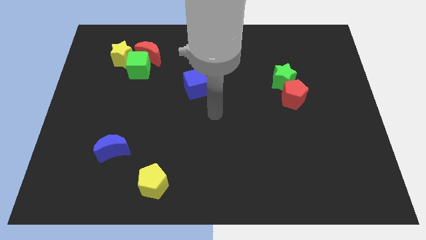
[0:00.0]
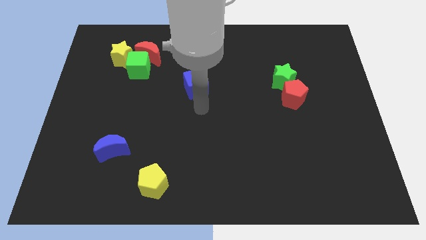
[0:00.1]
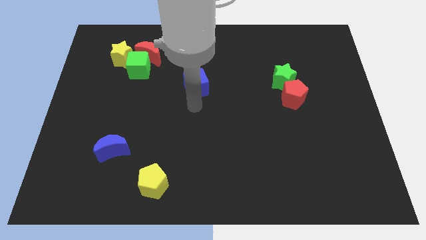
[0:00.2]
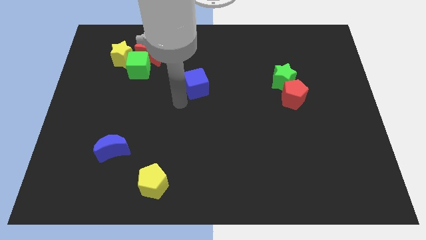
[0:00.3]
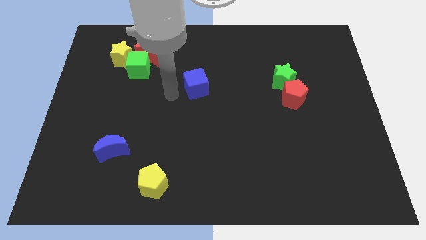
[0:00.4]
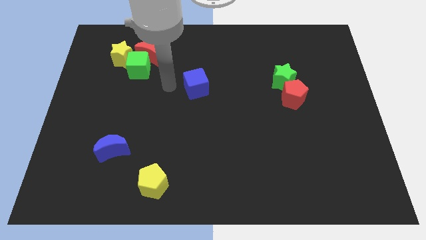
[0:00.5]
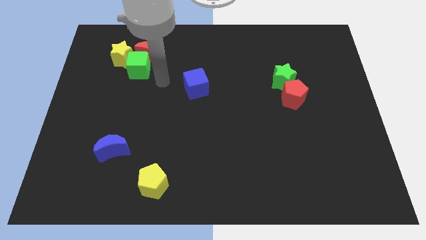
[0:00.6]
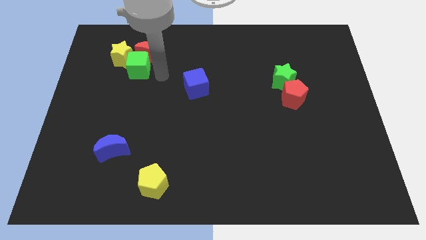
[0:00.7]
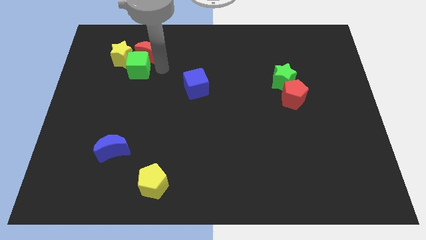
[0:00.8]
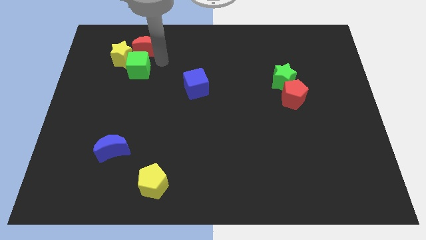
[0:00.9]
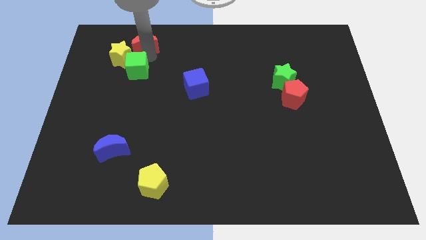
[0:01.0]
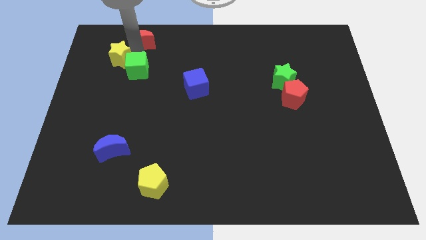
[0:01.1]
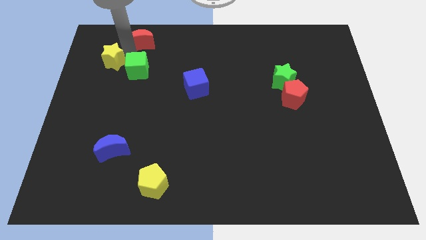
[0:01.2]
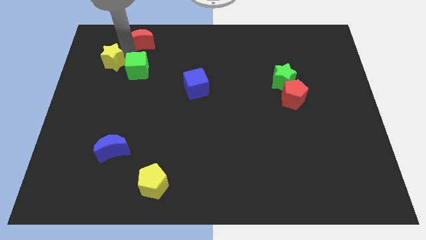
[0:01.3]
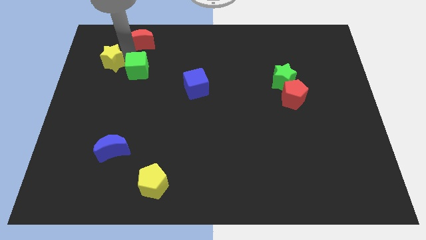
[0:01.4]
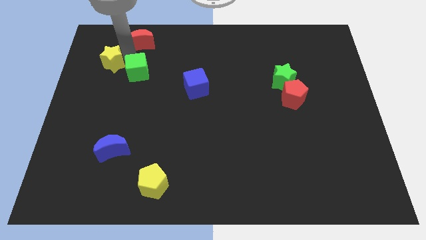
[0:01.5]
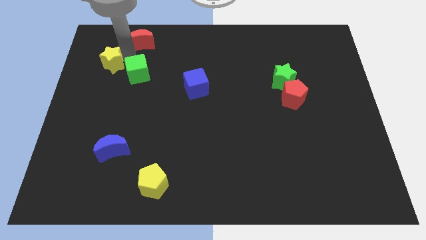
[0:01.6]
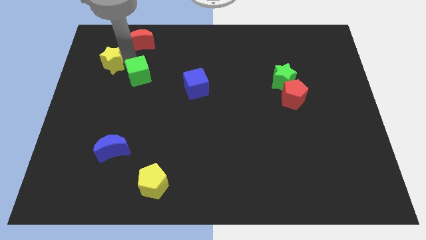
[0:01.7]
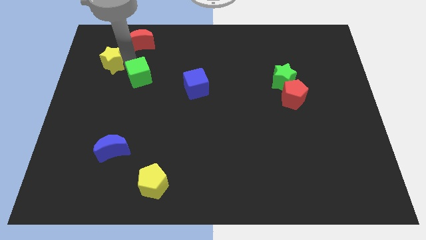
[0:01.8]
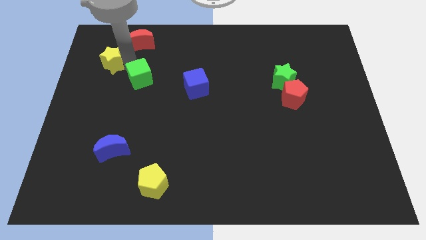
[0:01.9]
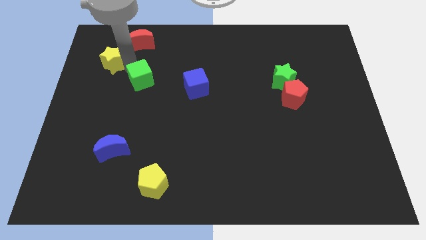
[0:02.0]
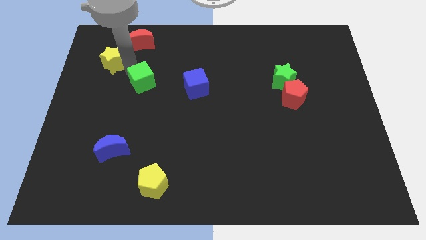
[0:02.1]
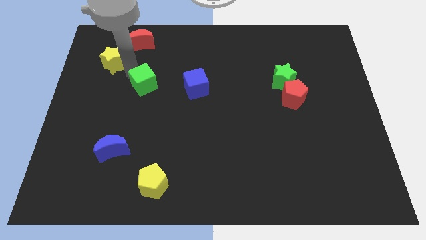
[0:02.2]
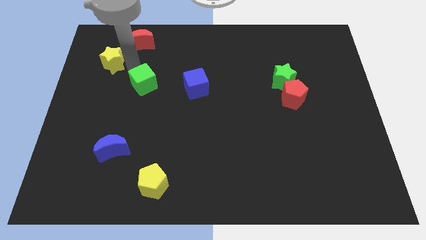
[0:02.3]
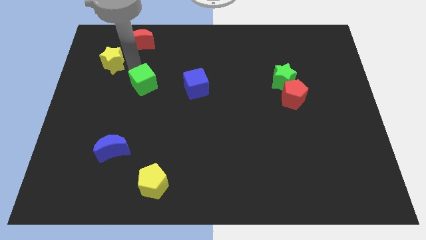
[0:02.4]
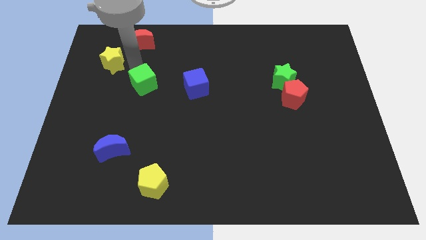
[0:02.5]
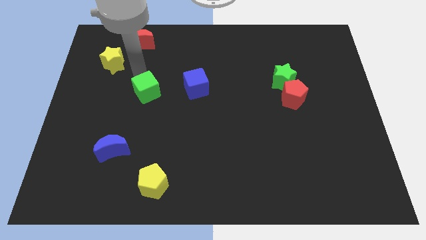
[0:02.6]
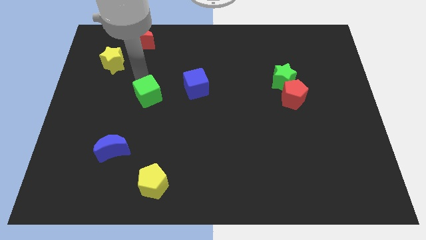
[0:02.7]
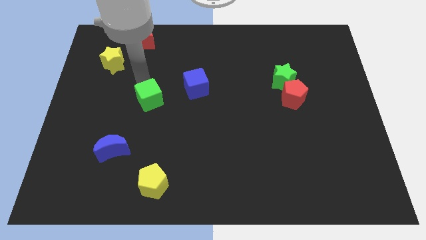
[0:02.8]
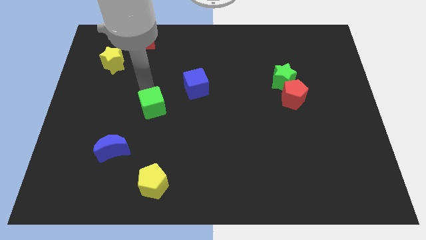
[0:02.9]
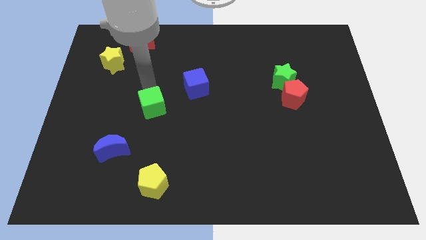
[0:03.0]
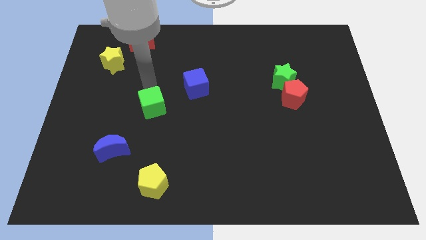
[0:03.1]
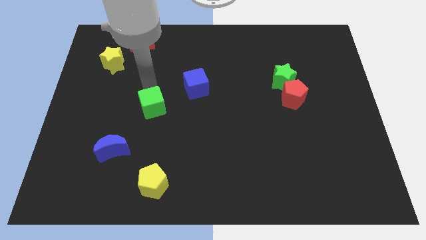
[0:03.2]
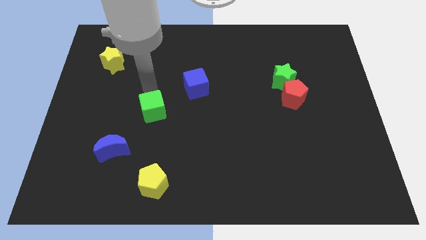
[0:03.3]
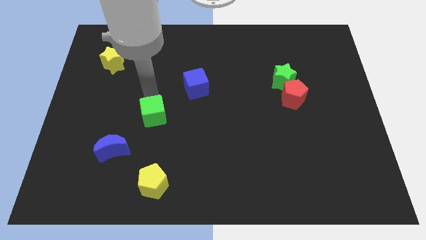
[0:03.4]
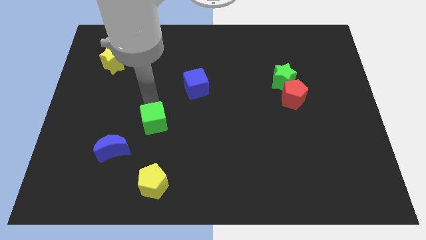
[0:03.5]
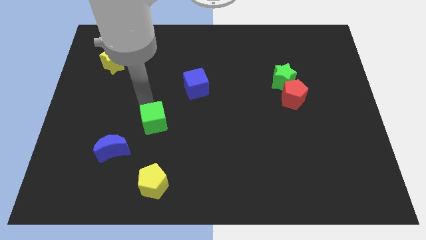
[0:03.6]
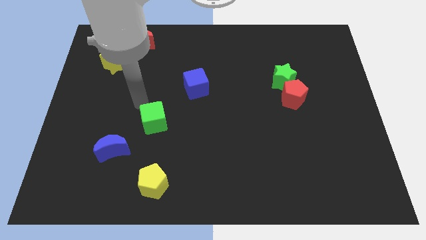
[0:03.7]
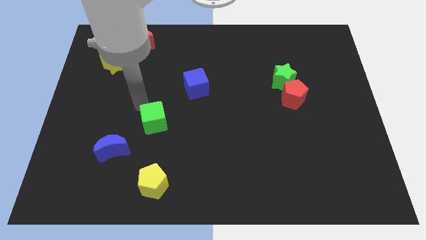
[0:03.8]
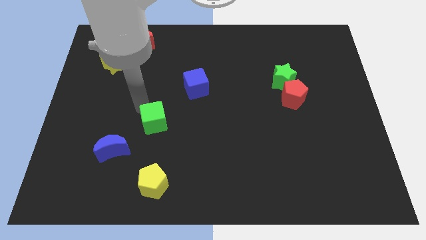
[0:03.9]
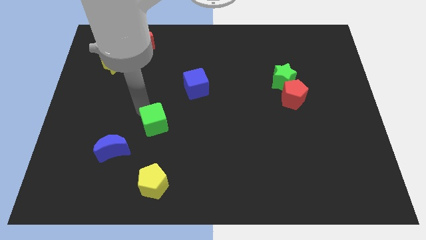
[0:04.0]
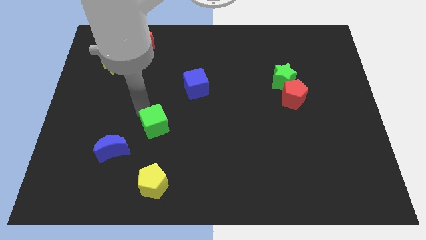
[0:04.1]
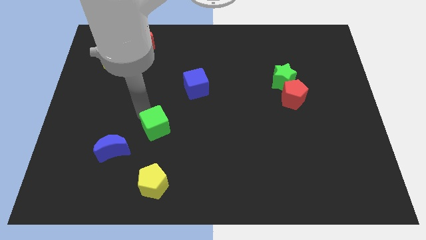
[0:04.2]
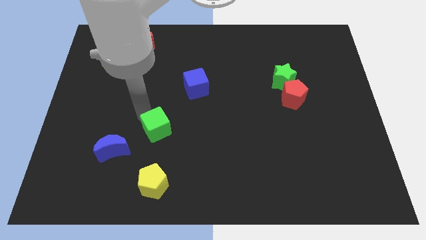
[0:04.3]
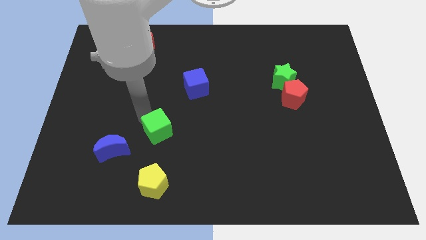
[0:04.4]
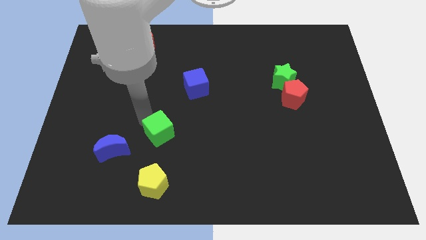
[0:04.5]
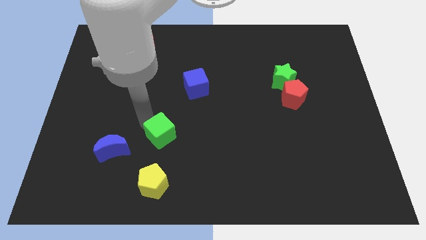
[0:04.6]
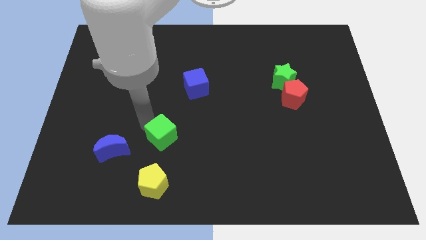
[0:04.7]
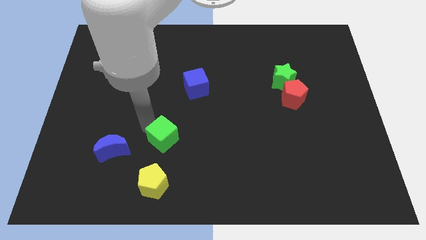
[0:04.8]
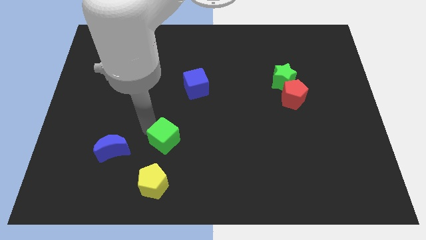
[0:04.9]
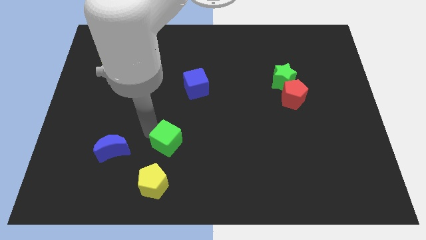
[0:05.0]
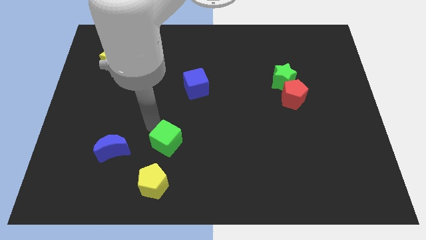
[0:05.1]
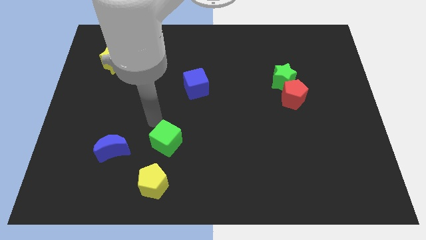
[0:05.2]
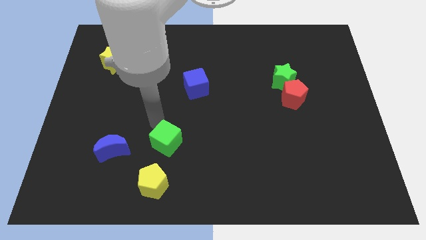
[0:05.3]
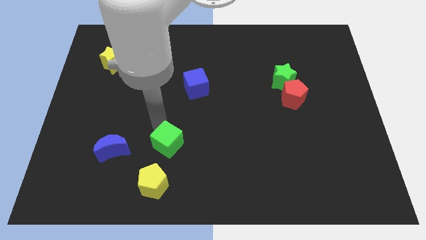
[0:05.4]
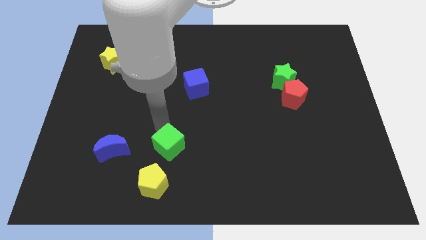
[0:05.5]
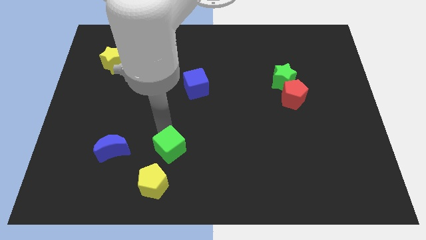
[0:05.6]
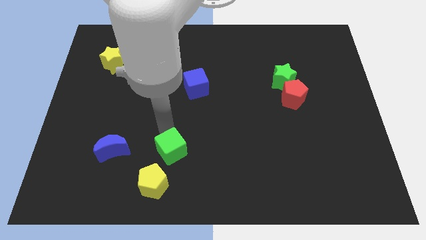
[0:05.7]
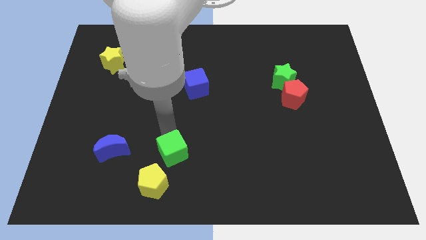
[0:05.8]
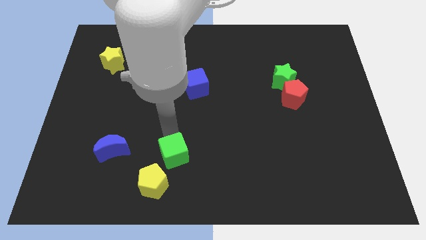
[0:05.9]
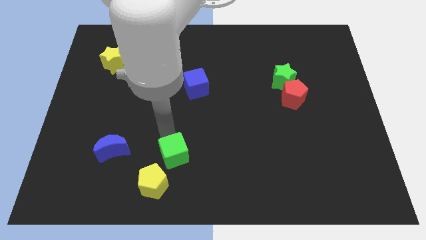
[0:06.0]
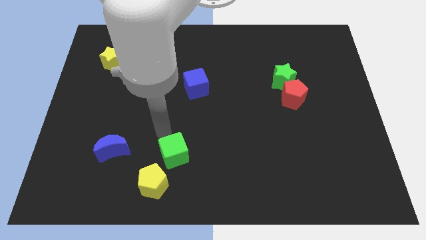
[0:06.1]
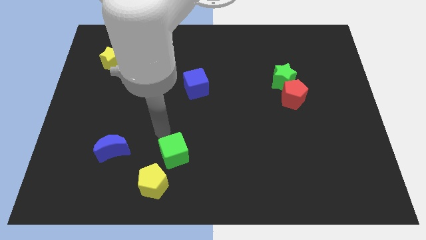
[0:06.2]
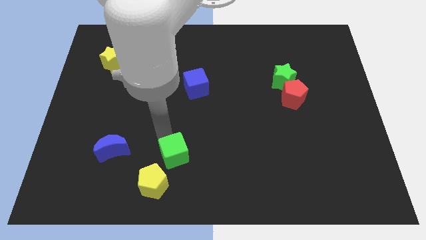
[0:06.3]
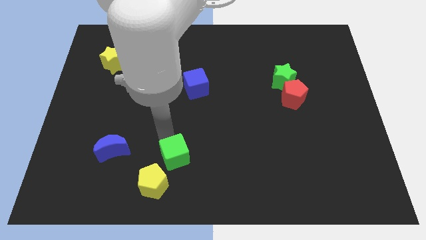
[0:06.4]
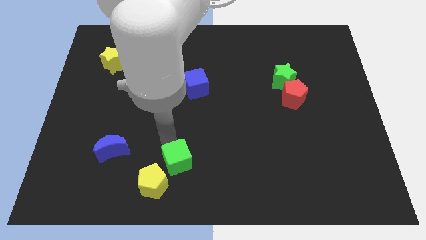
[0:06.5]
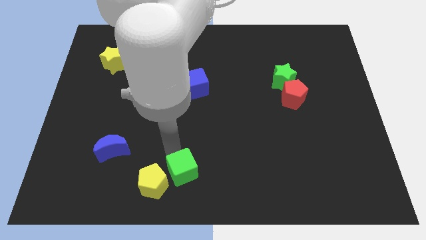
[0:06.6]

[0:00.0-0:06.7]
move the green cube to the bottom side

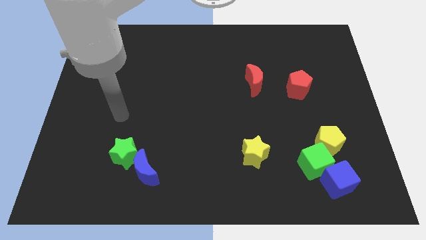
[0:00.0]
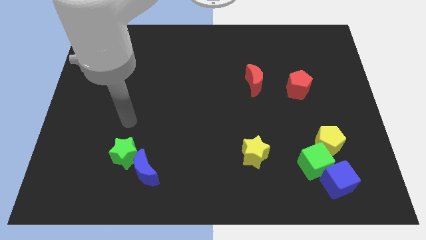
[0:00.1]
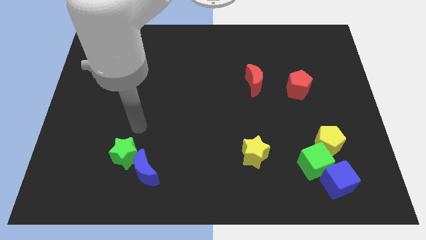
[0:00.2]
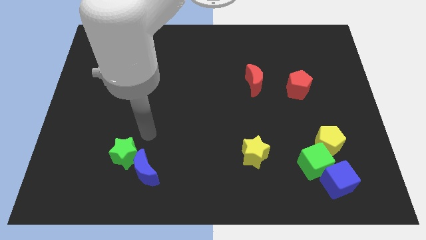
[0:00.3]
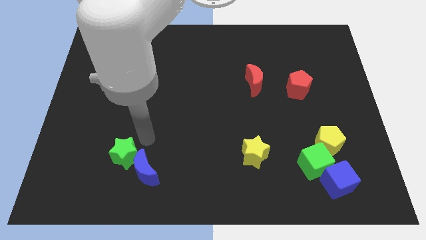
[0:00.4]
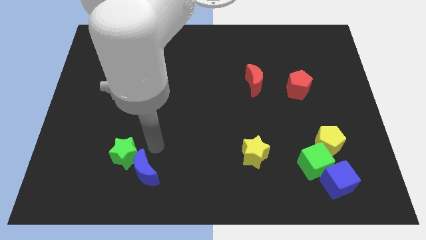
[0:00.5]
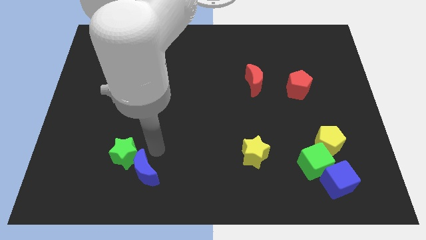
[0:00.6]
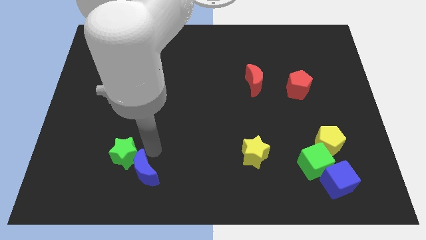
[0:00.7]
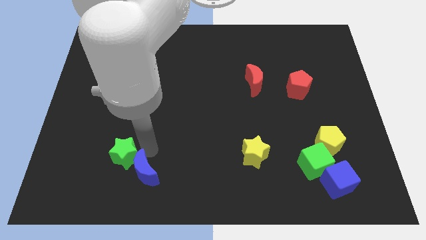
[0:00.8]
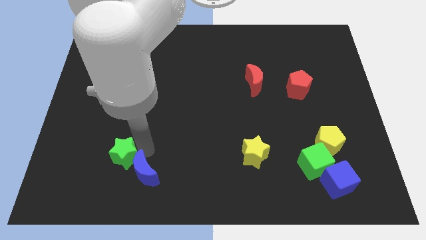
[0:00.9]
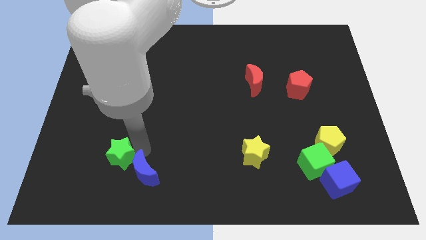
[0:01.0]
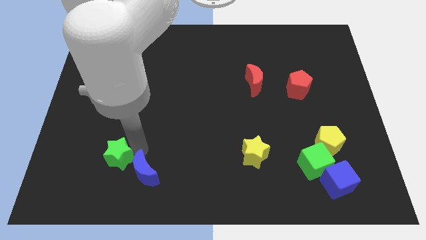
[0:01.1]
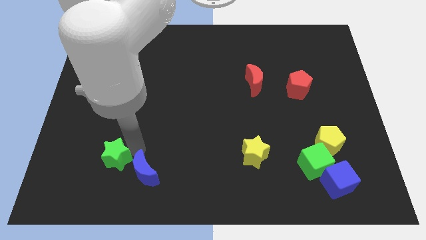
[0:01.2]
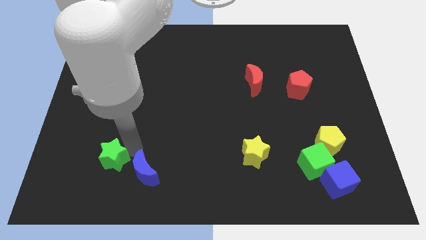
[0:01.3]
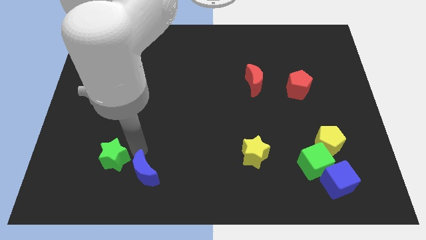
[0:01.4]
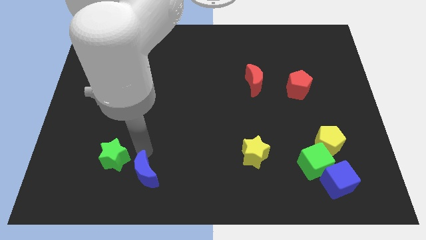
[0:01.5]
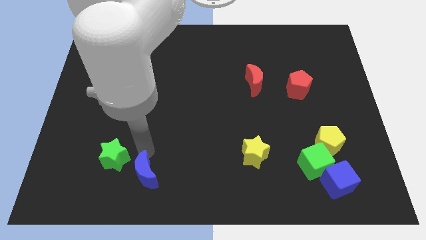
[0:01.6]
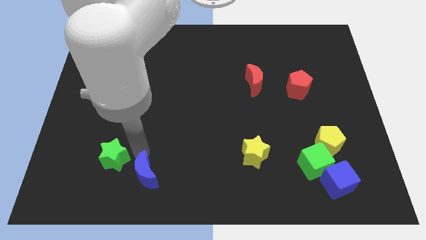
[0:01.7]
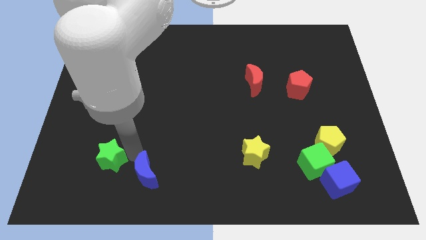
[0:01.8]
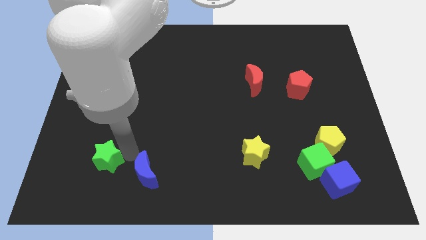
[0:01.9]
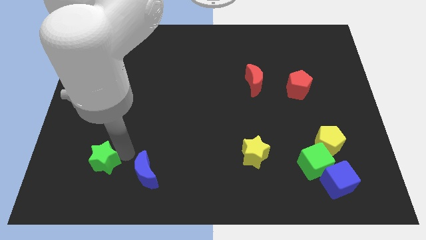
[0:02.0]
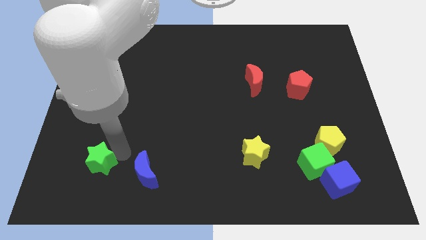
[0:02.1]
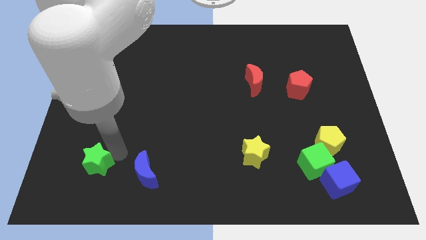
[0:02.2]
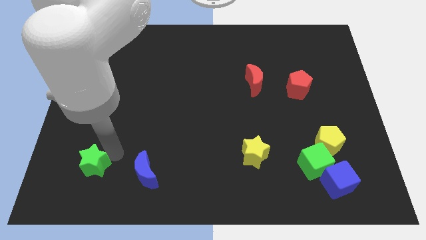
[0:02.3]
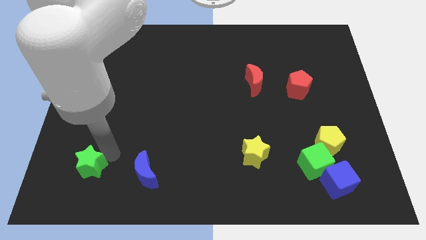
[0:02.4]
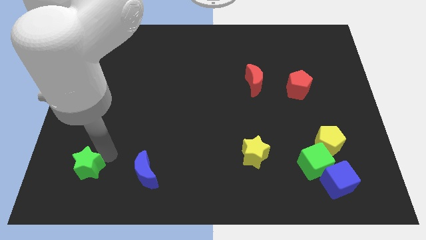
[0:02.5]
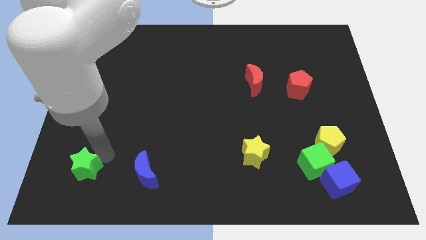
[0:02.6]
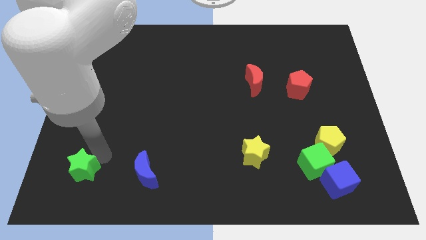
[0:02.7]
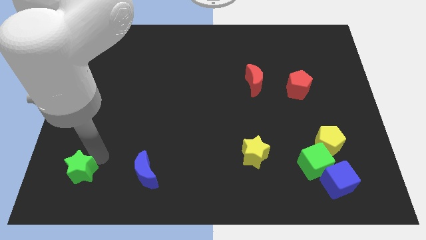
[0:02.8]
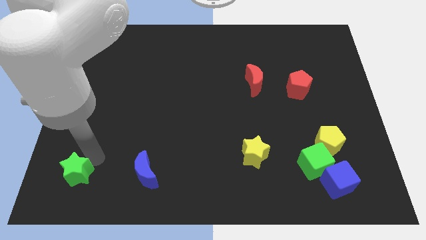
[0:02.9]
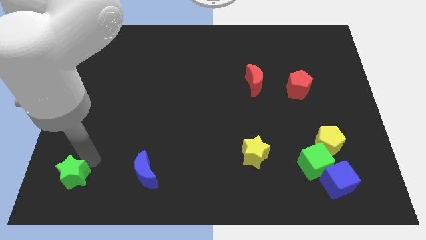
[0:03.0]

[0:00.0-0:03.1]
push the green star to the bottom left
